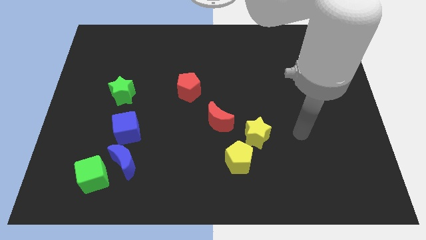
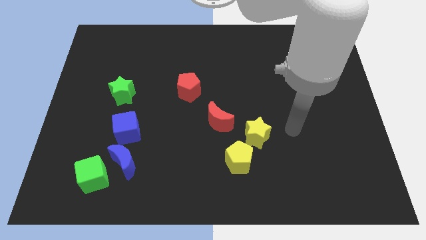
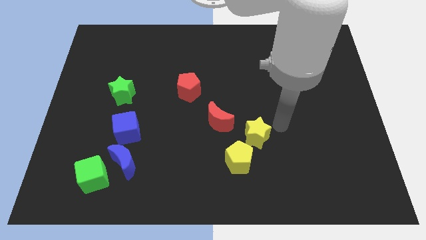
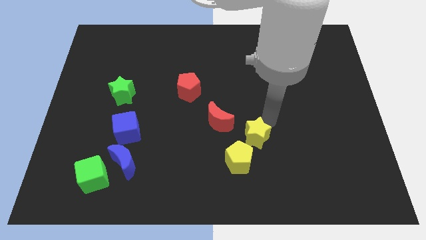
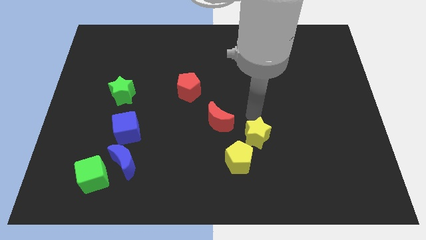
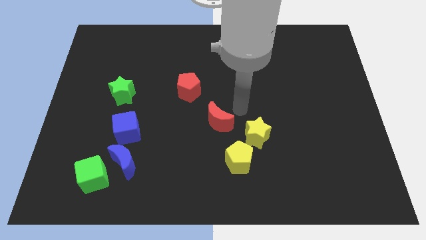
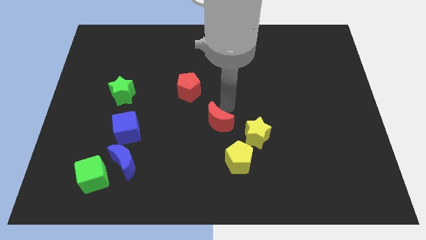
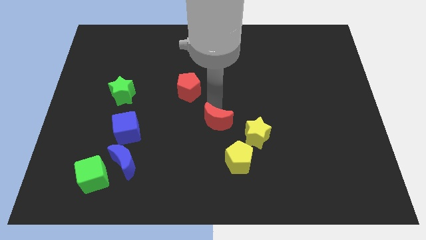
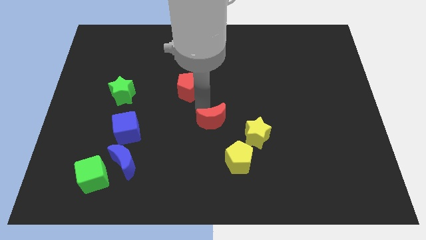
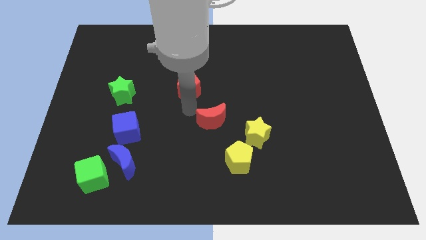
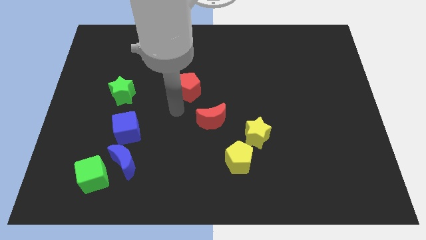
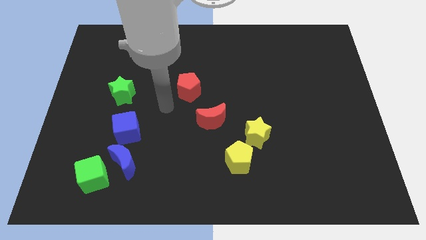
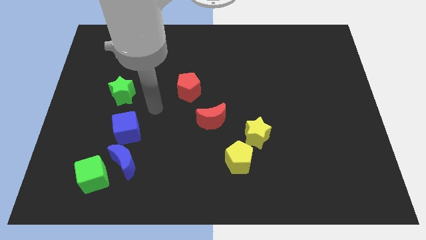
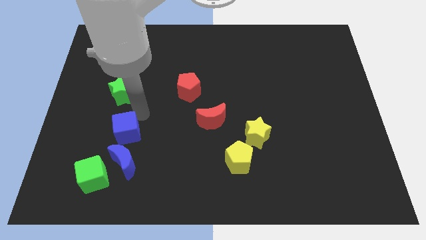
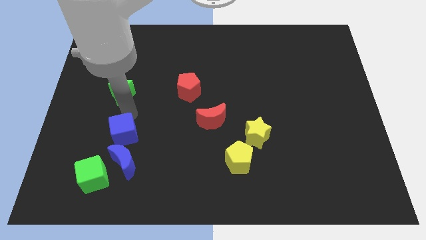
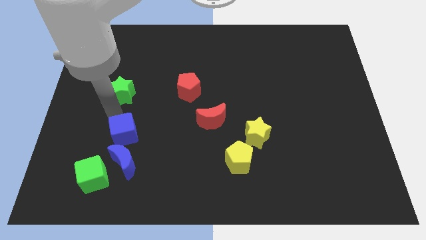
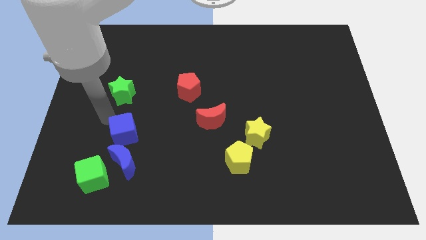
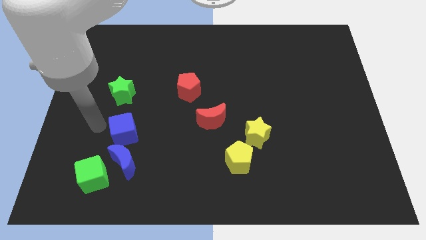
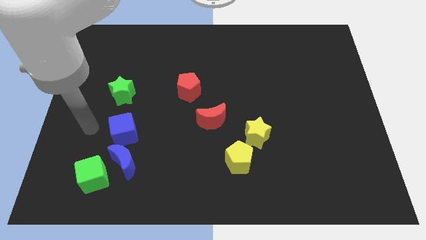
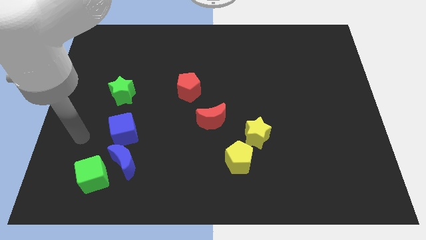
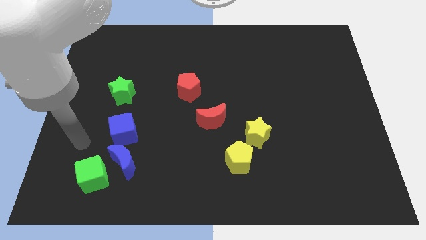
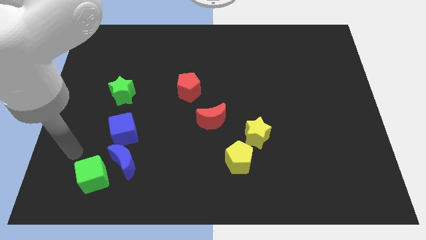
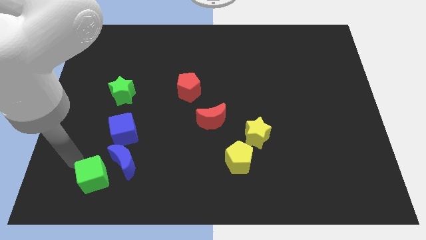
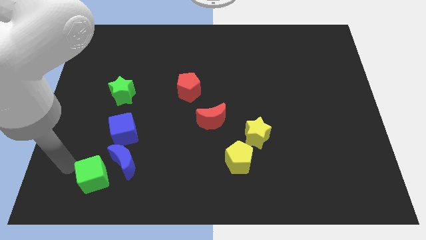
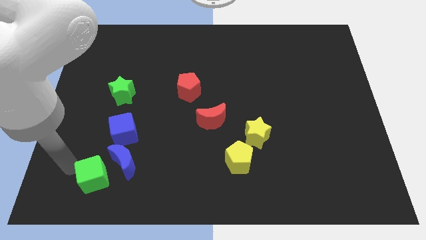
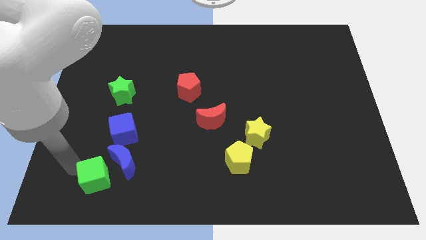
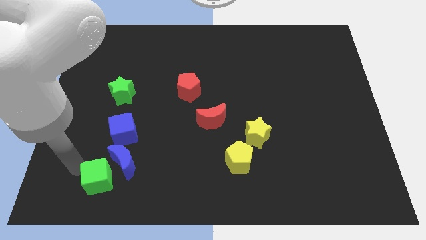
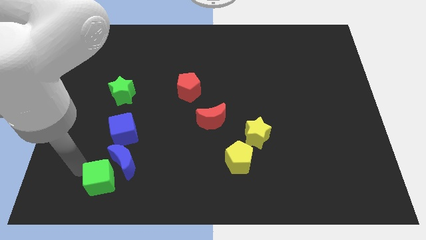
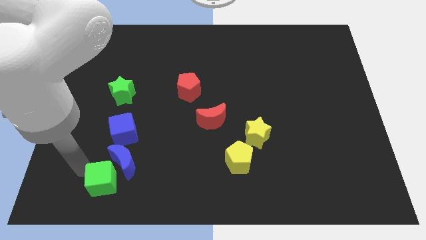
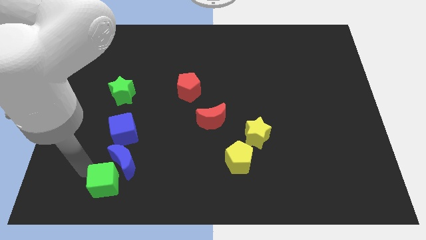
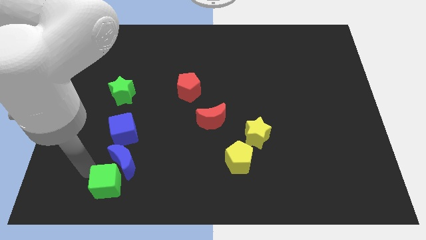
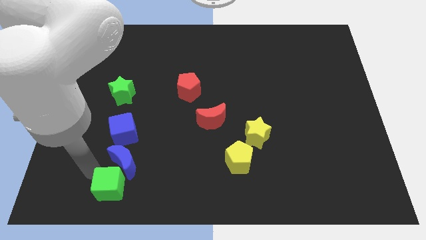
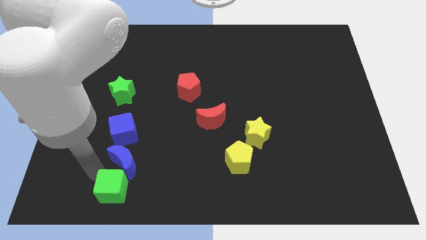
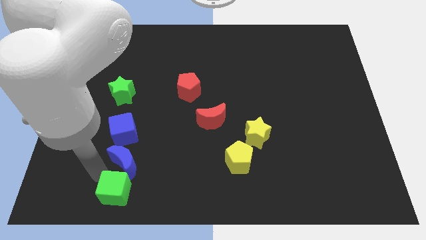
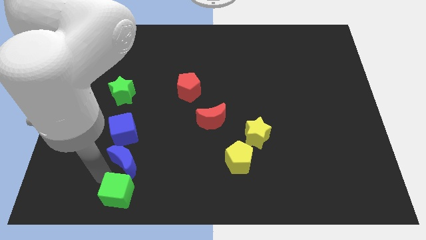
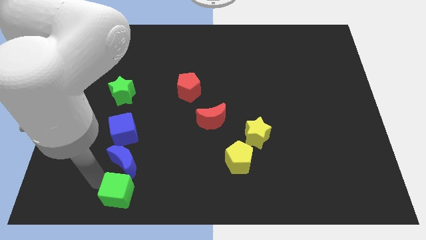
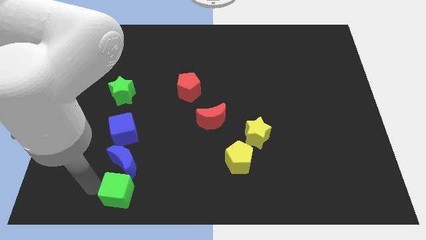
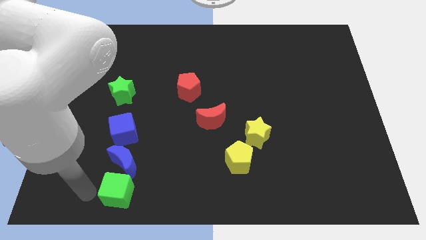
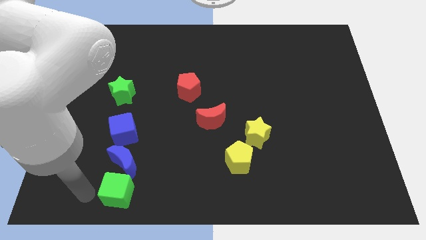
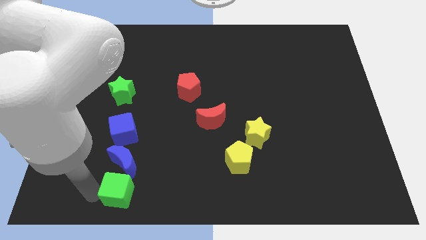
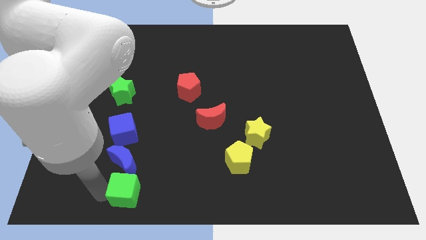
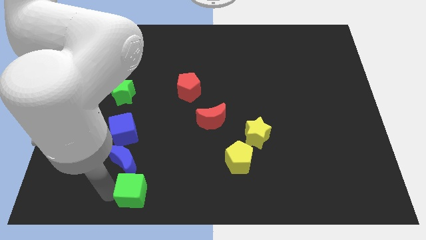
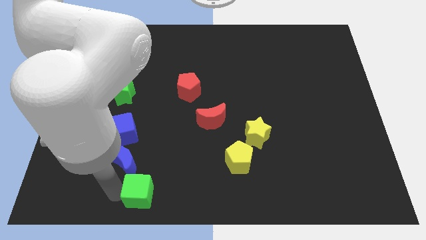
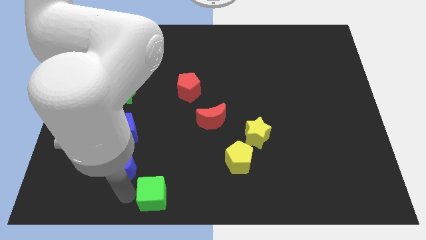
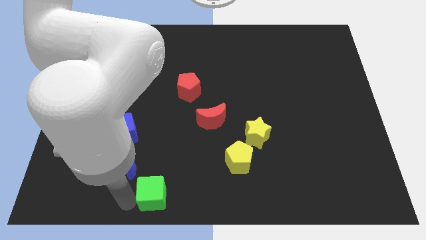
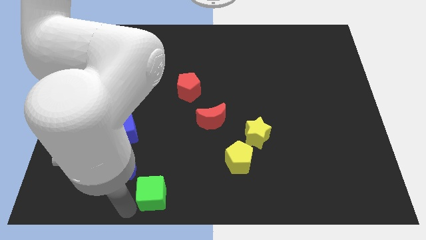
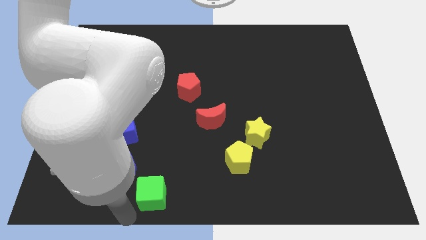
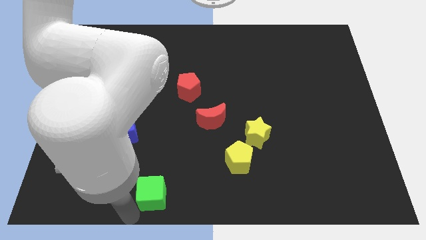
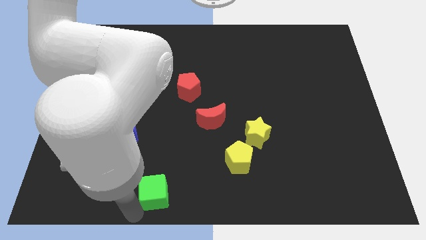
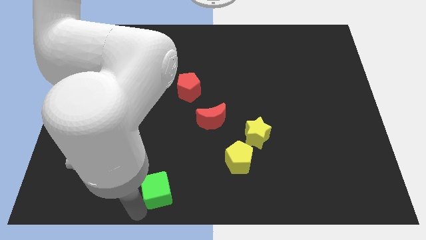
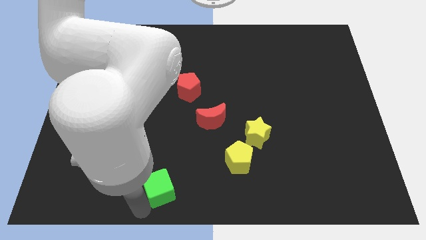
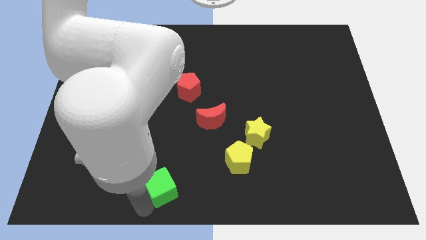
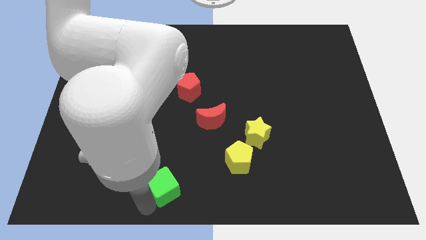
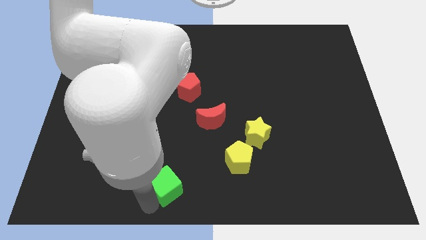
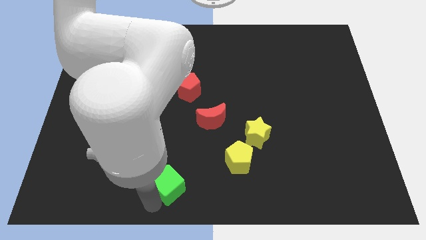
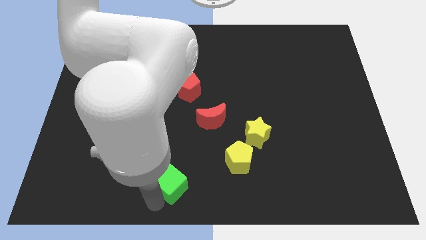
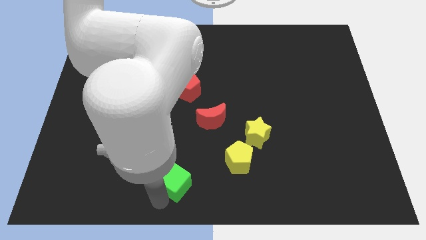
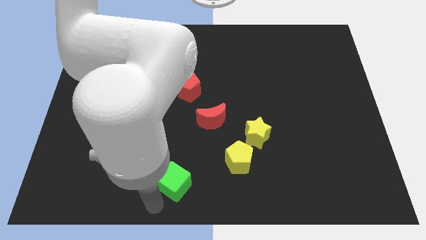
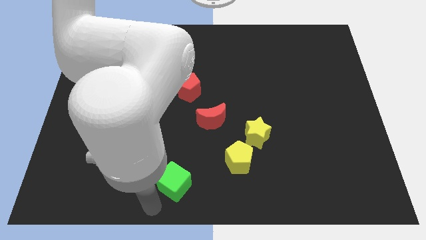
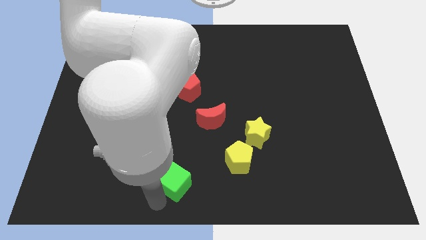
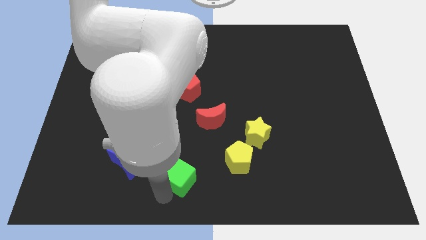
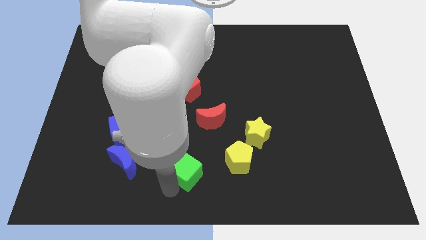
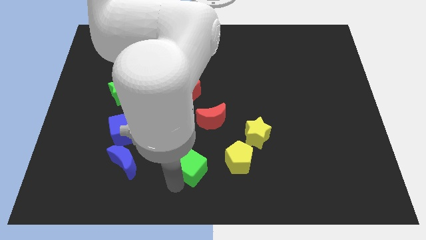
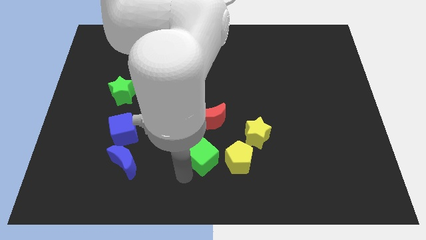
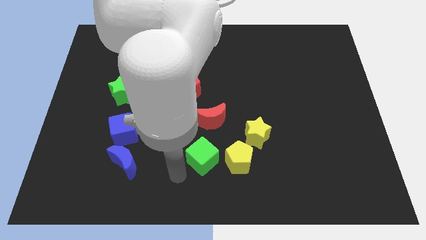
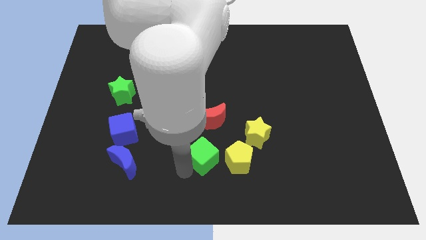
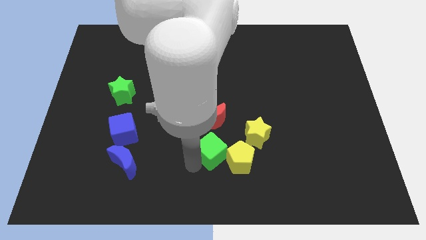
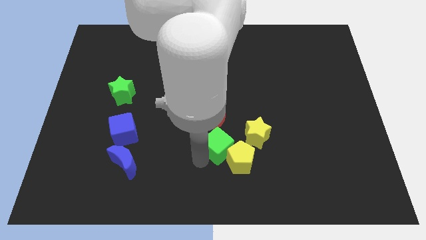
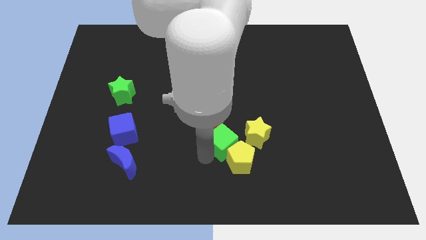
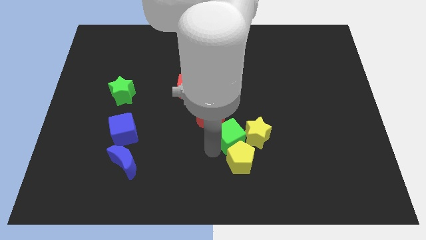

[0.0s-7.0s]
move the green cube to the yellow star
